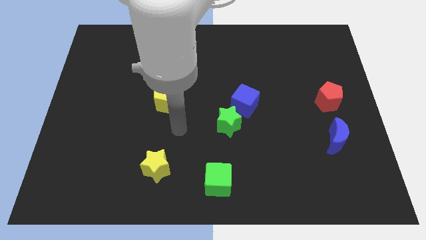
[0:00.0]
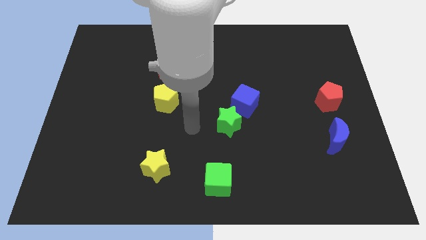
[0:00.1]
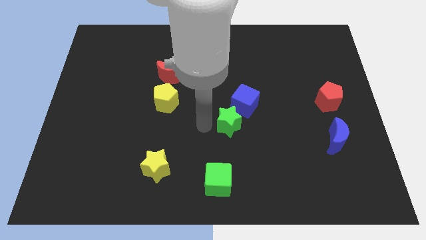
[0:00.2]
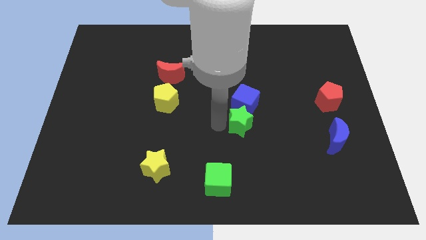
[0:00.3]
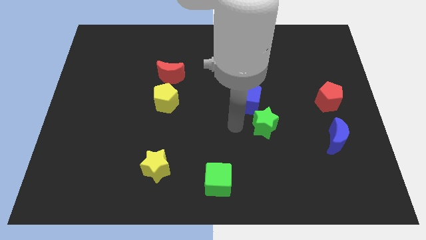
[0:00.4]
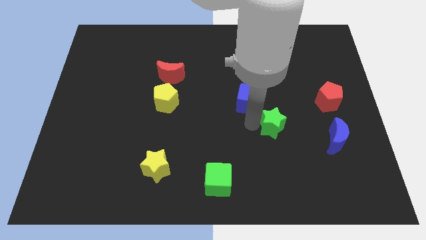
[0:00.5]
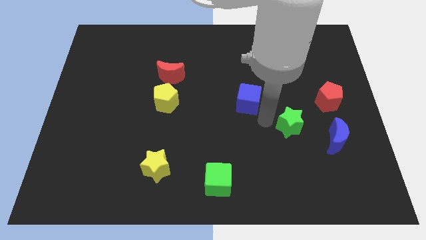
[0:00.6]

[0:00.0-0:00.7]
separate the blue cube from the green star

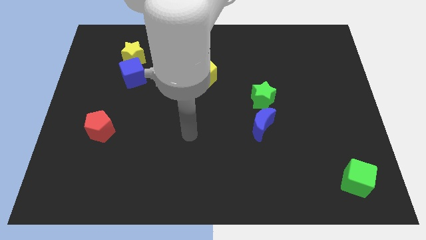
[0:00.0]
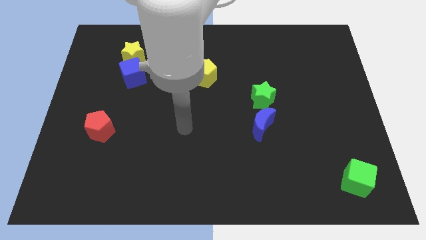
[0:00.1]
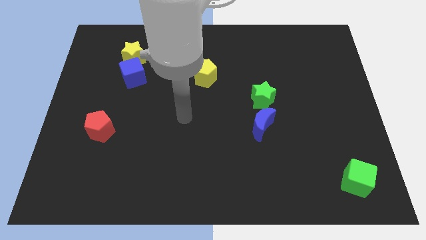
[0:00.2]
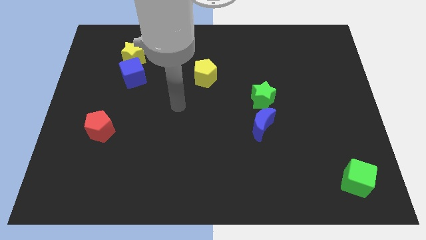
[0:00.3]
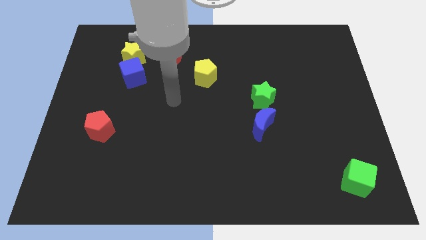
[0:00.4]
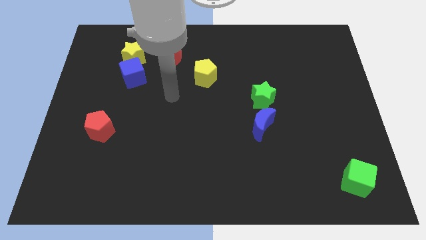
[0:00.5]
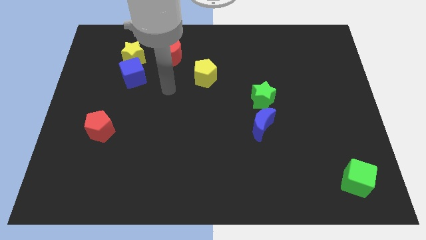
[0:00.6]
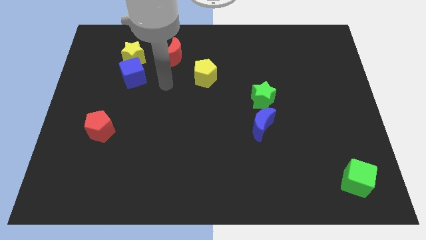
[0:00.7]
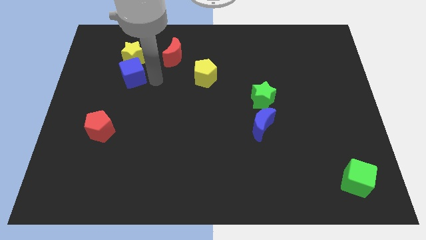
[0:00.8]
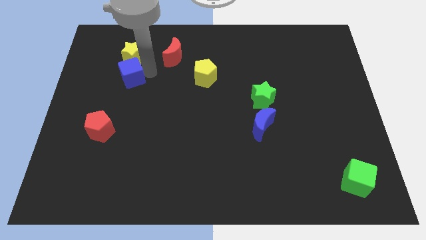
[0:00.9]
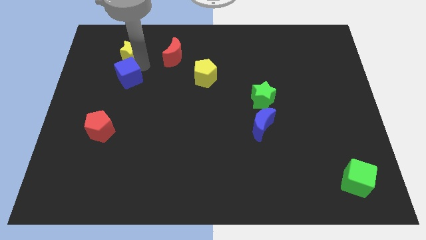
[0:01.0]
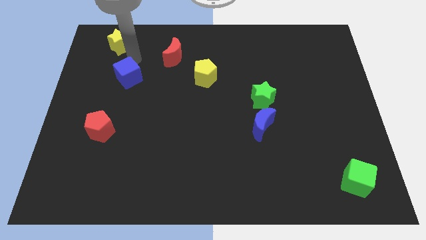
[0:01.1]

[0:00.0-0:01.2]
pull the blue cube apart from the yellow star

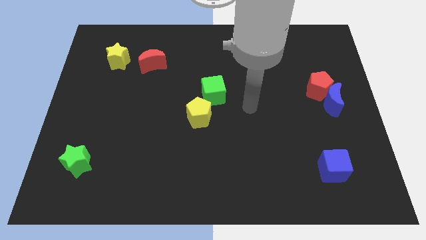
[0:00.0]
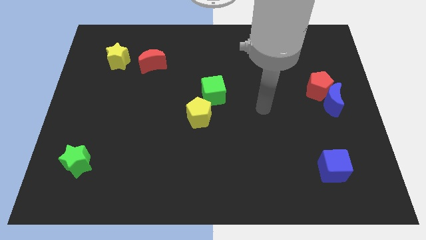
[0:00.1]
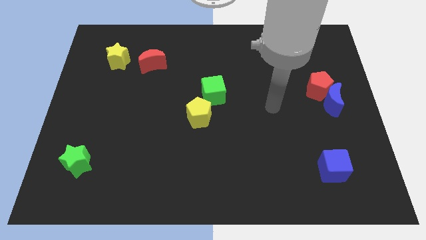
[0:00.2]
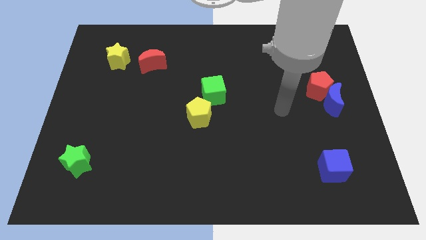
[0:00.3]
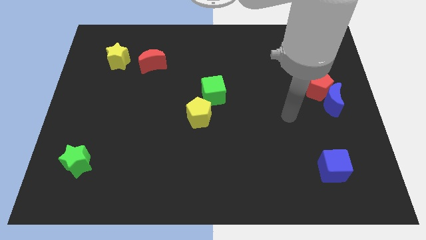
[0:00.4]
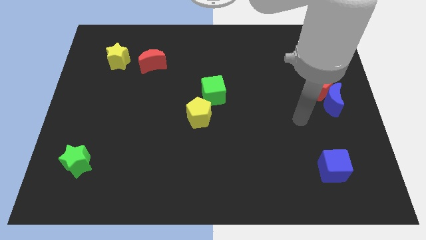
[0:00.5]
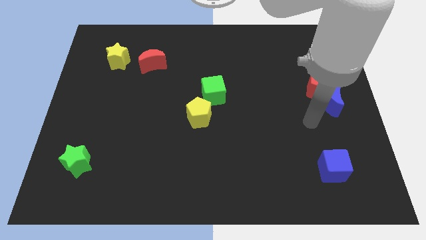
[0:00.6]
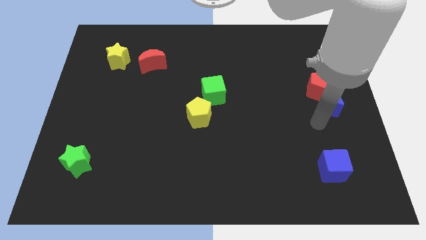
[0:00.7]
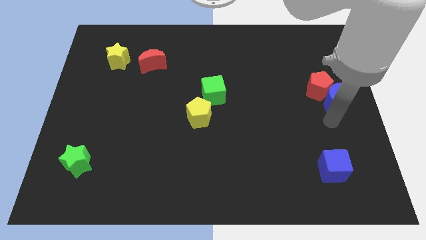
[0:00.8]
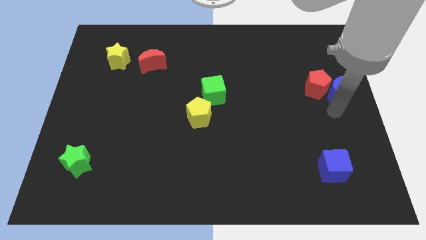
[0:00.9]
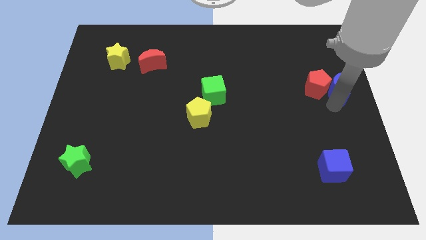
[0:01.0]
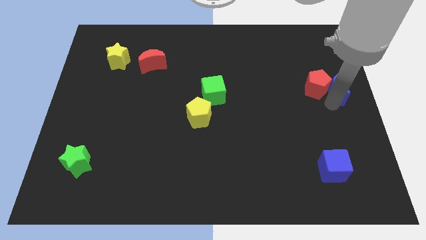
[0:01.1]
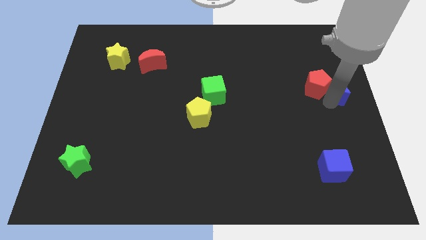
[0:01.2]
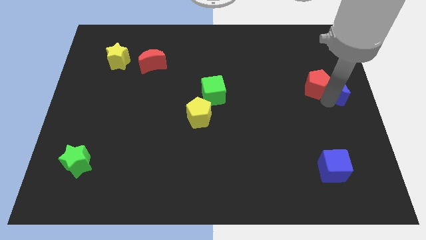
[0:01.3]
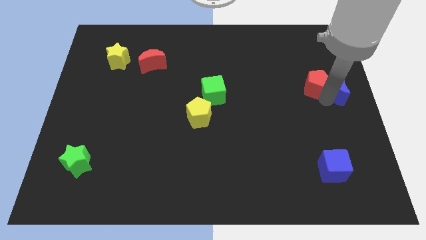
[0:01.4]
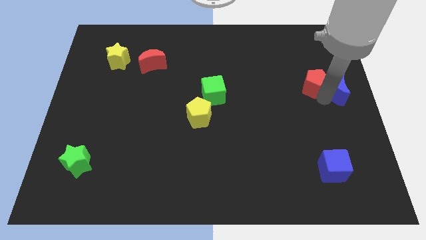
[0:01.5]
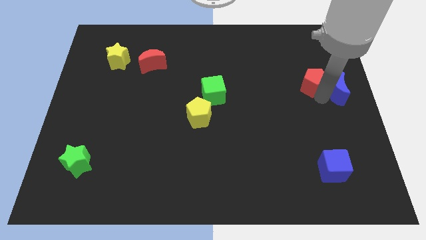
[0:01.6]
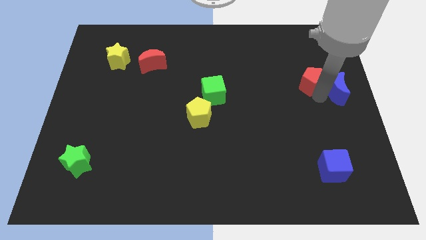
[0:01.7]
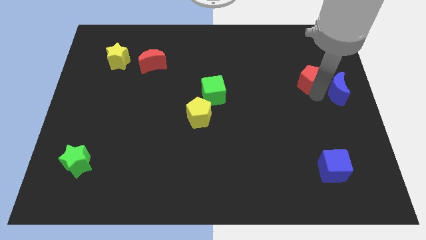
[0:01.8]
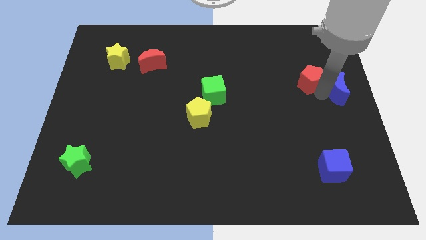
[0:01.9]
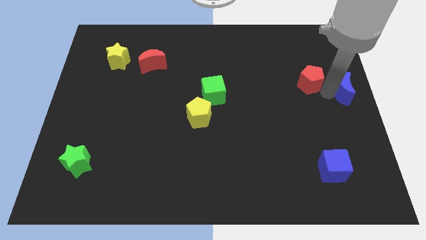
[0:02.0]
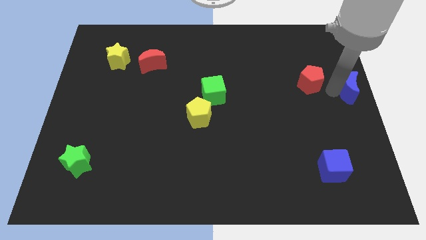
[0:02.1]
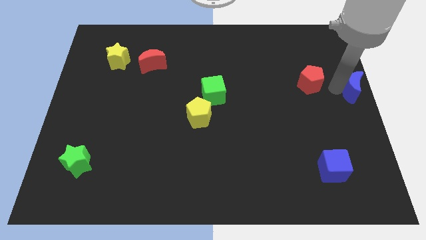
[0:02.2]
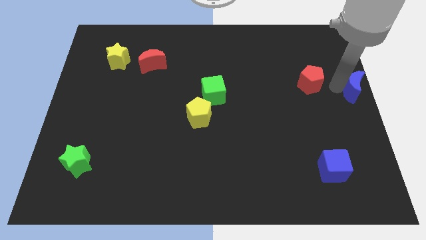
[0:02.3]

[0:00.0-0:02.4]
separate the red pentagon from the blue moon

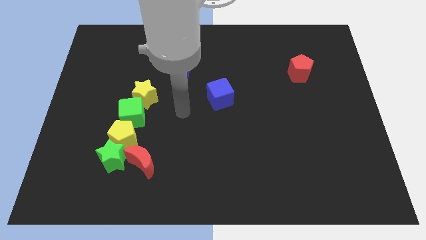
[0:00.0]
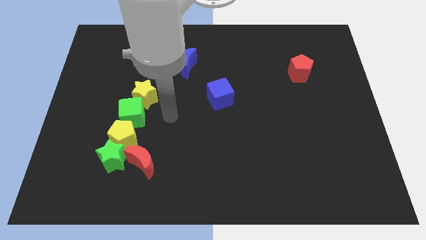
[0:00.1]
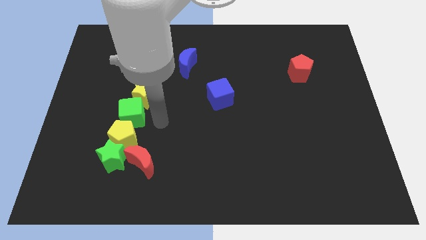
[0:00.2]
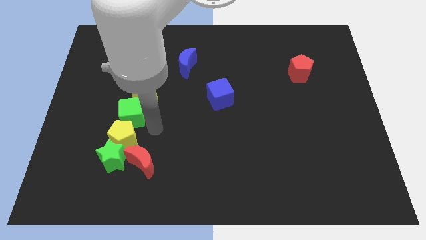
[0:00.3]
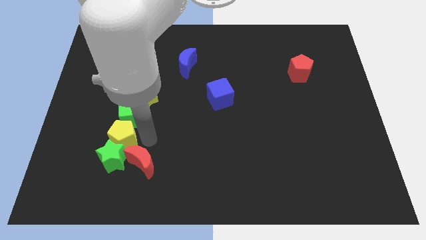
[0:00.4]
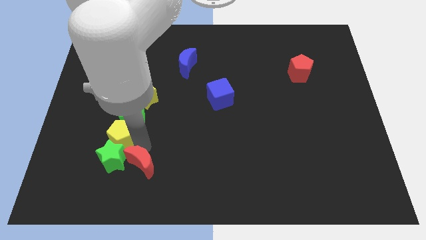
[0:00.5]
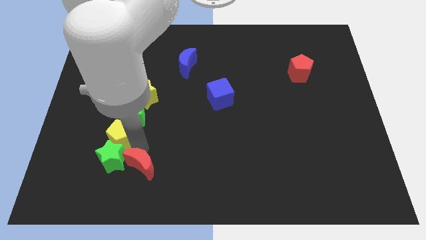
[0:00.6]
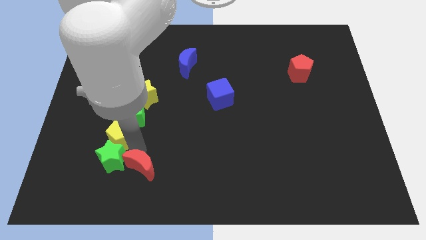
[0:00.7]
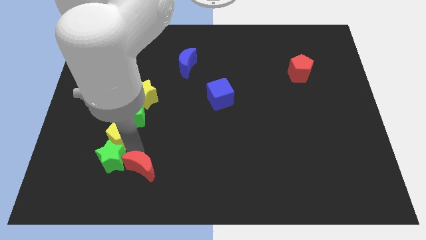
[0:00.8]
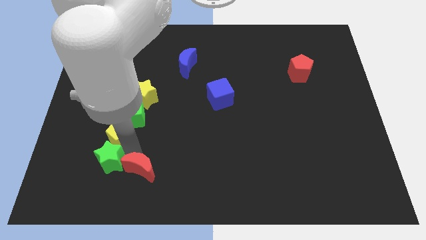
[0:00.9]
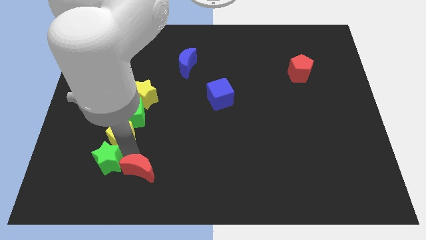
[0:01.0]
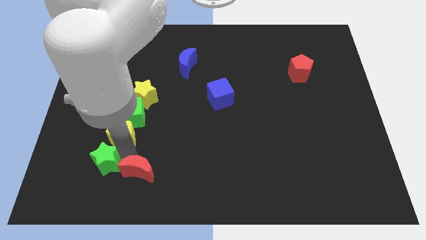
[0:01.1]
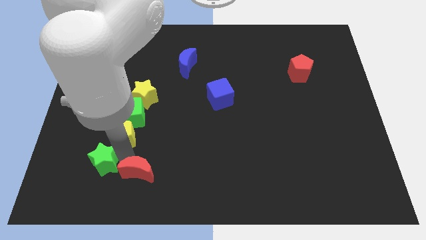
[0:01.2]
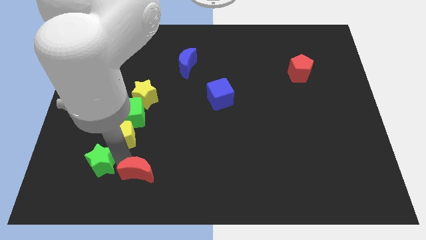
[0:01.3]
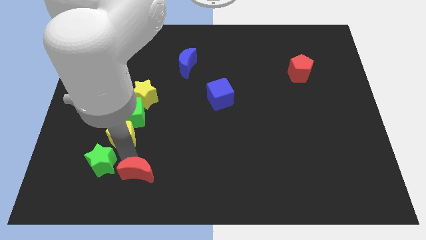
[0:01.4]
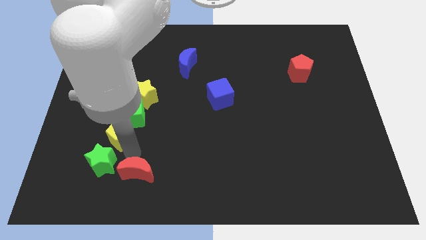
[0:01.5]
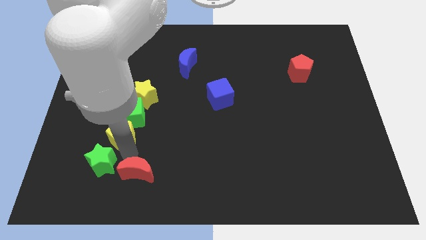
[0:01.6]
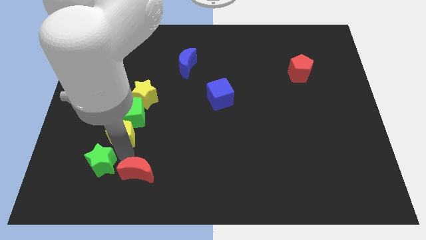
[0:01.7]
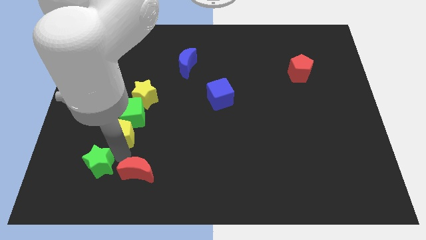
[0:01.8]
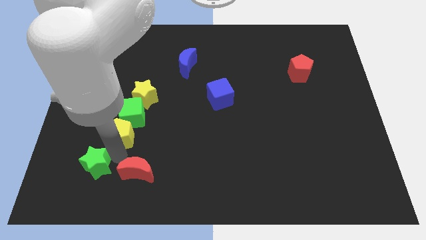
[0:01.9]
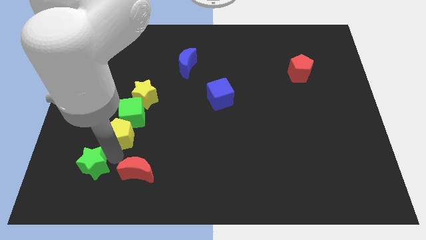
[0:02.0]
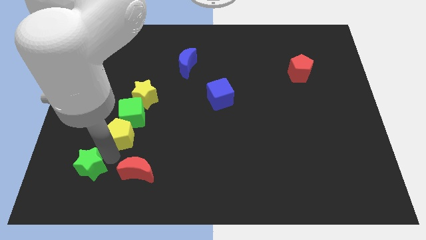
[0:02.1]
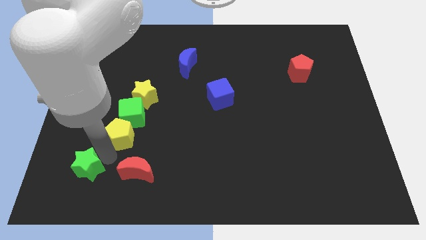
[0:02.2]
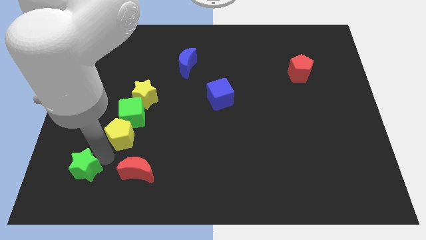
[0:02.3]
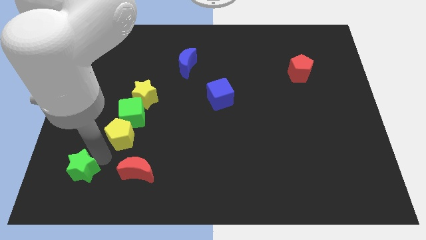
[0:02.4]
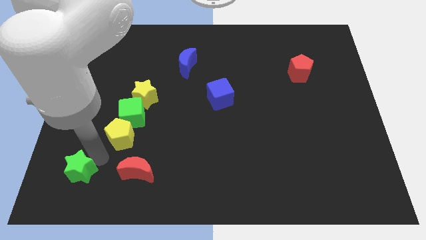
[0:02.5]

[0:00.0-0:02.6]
move the green star away from the yellow pentagon and red moon

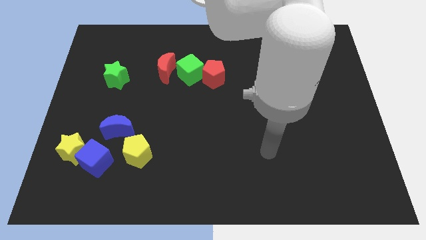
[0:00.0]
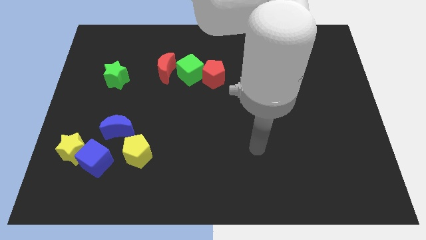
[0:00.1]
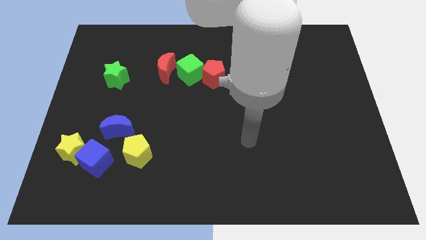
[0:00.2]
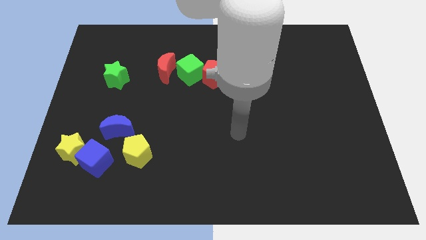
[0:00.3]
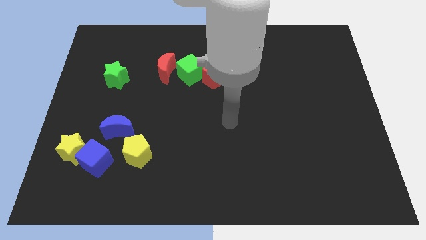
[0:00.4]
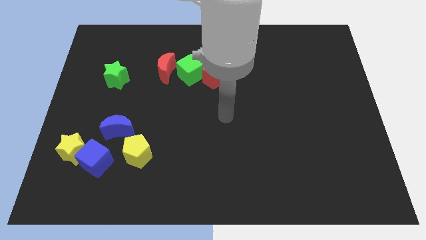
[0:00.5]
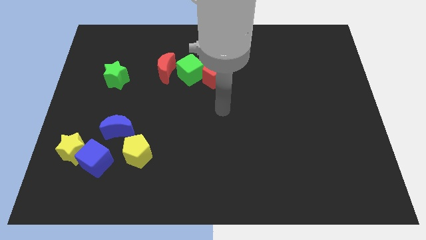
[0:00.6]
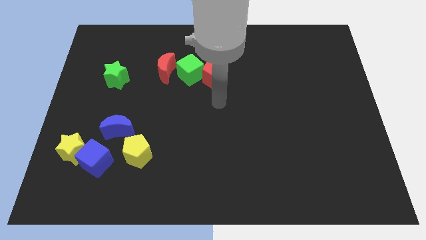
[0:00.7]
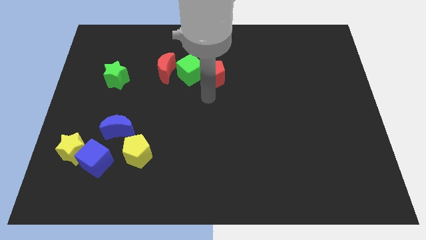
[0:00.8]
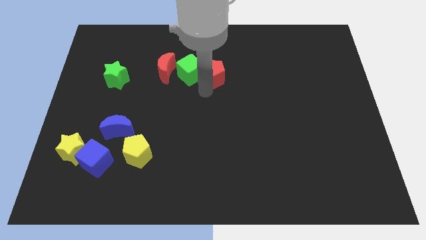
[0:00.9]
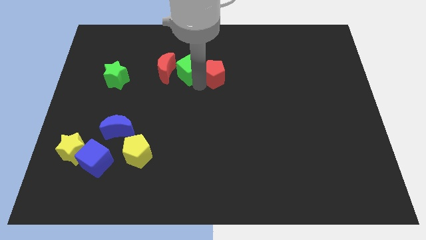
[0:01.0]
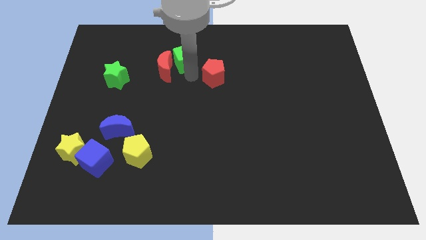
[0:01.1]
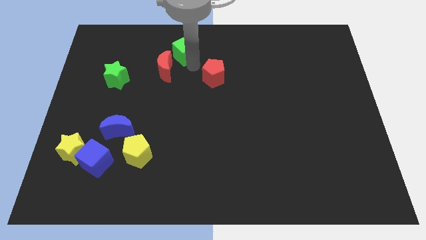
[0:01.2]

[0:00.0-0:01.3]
move the red pentagon away from the green cube

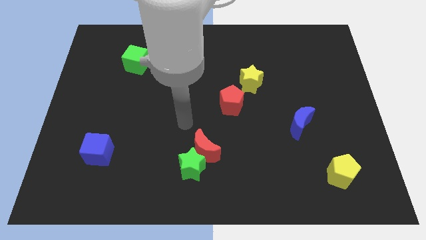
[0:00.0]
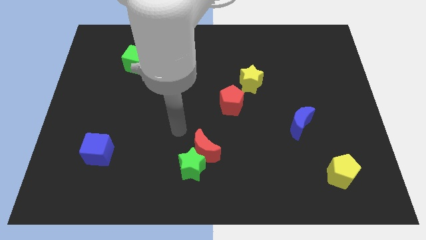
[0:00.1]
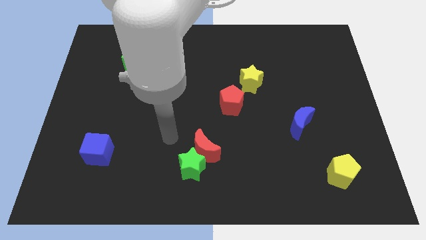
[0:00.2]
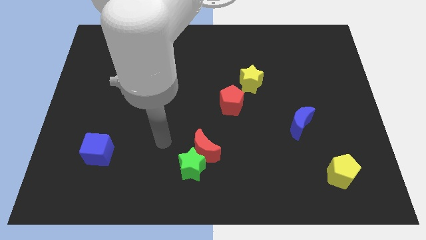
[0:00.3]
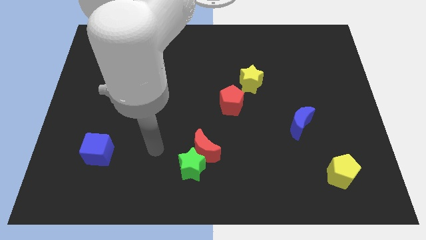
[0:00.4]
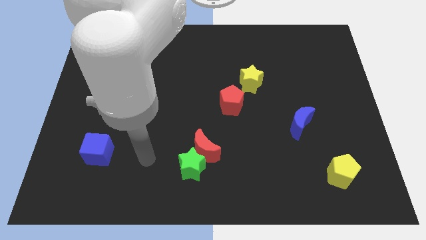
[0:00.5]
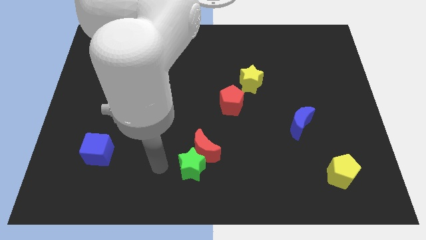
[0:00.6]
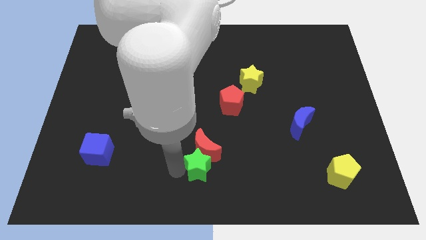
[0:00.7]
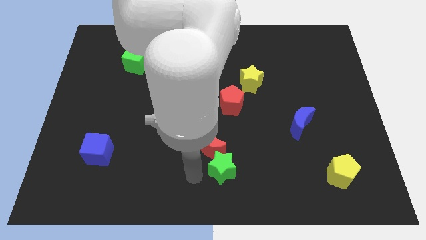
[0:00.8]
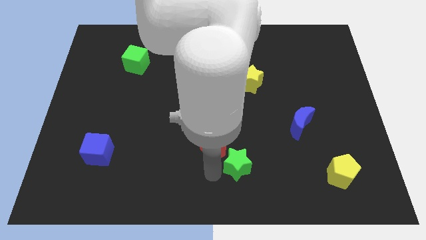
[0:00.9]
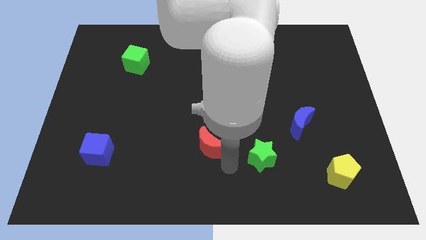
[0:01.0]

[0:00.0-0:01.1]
pull the red moon apart from the green star
